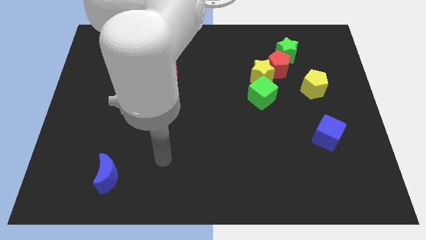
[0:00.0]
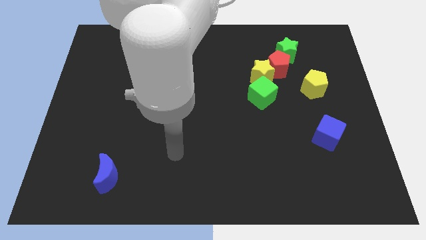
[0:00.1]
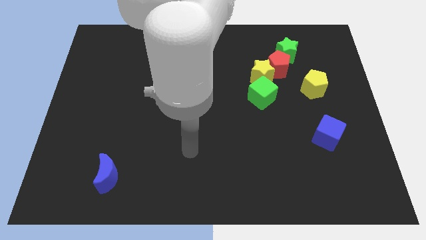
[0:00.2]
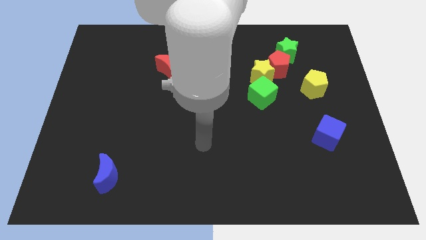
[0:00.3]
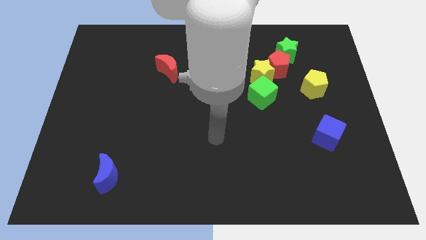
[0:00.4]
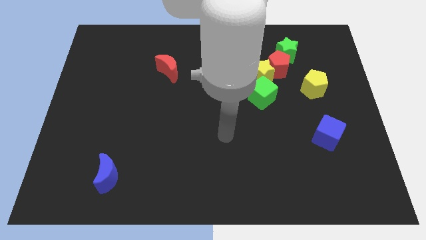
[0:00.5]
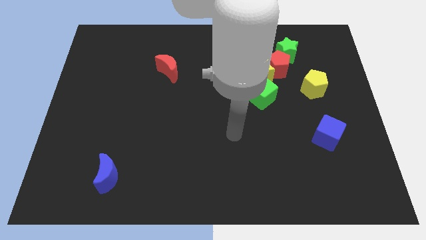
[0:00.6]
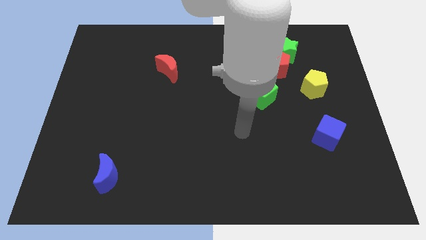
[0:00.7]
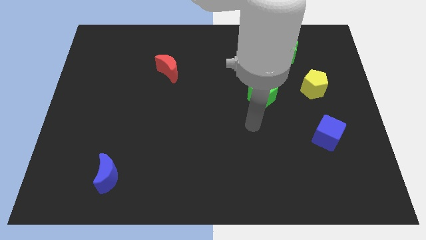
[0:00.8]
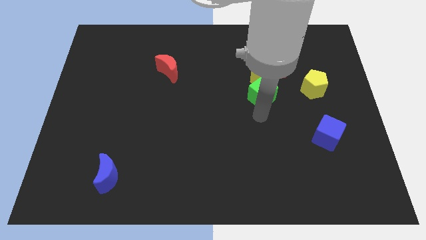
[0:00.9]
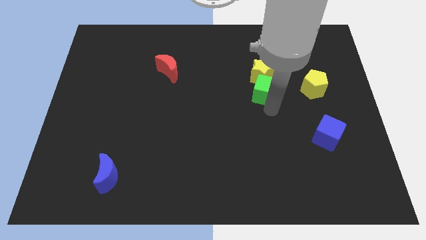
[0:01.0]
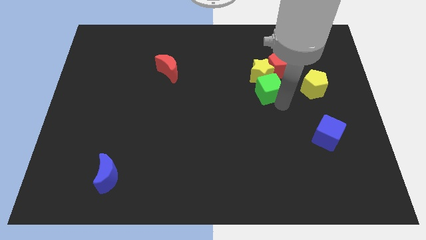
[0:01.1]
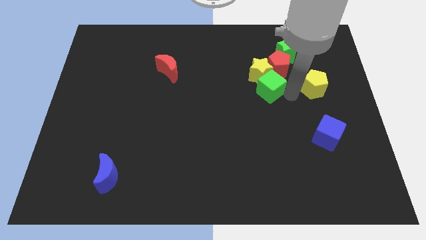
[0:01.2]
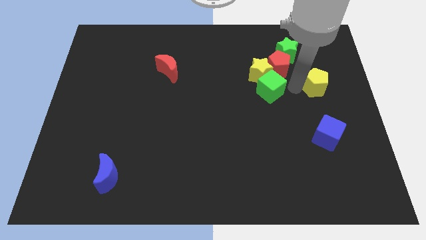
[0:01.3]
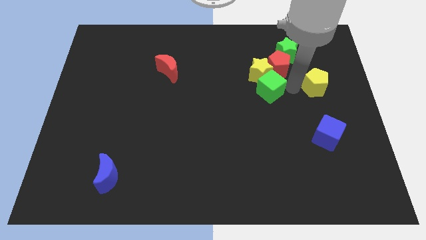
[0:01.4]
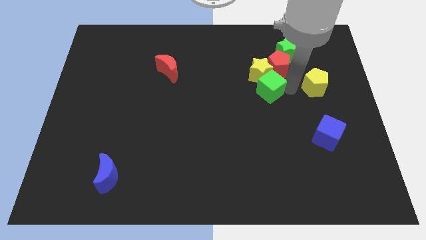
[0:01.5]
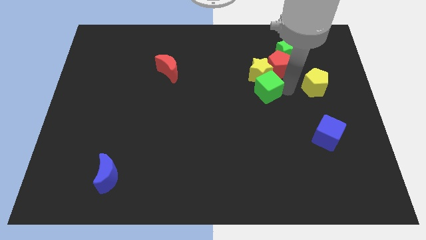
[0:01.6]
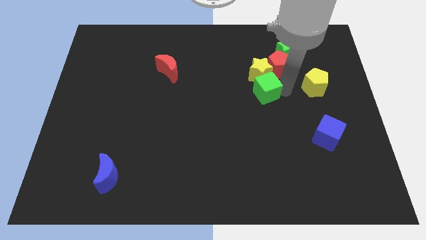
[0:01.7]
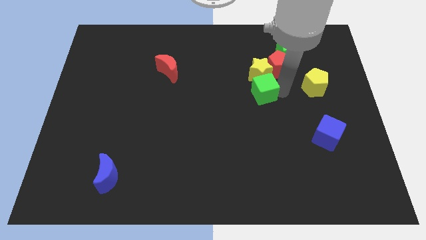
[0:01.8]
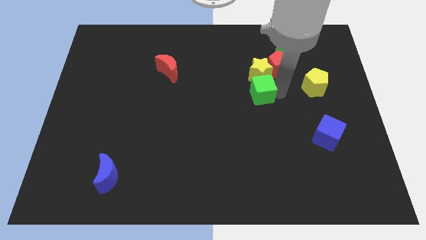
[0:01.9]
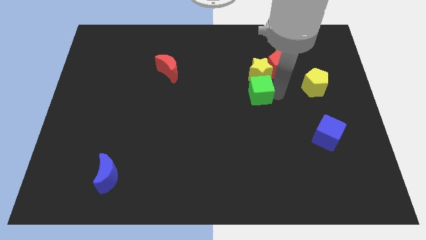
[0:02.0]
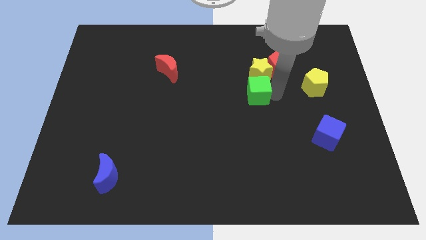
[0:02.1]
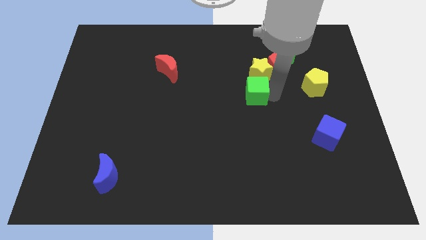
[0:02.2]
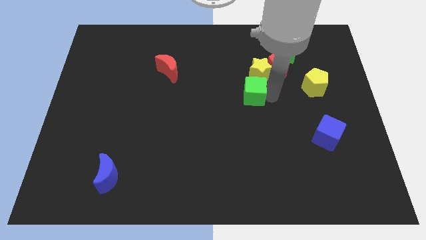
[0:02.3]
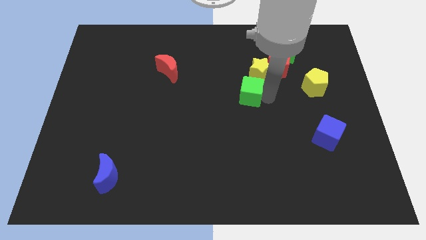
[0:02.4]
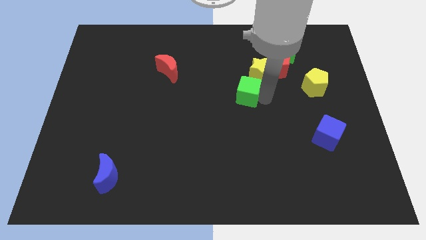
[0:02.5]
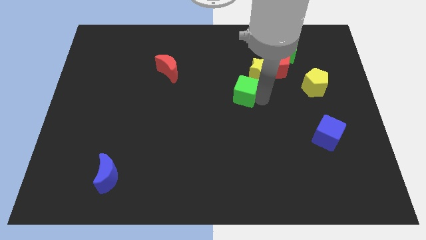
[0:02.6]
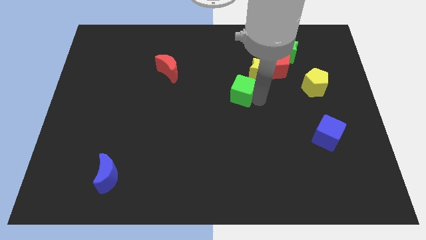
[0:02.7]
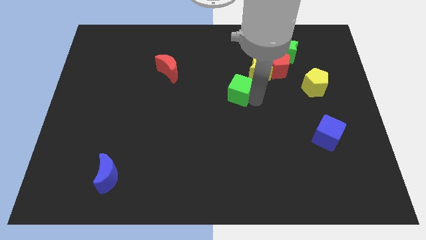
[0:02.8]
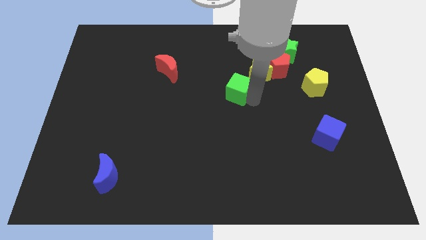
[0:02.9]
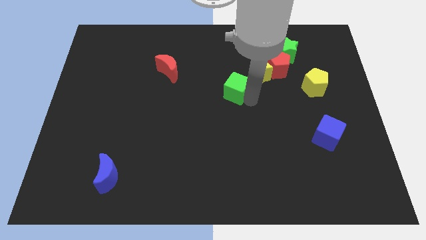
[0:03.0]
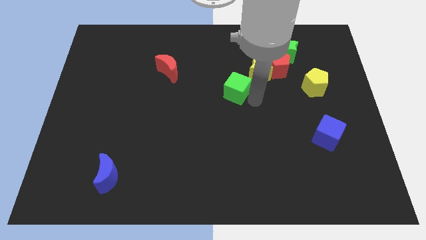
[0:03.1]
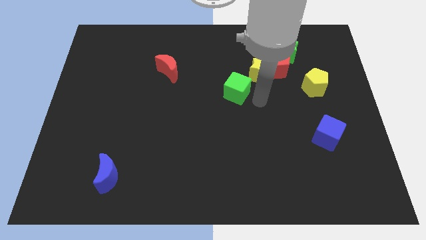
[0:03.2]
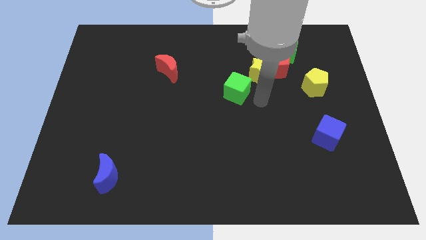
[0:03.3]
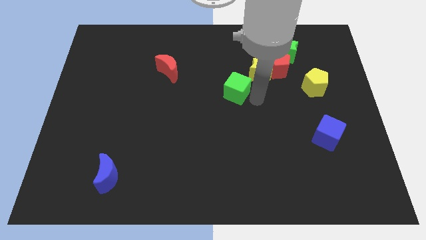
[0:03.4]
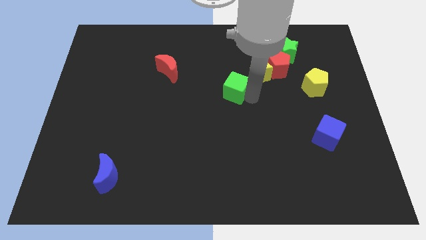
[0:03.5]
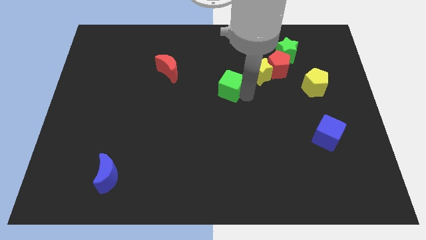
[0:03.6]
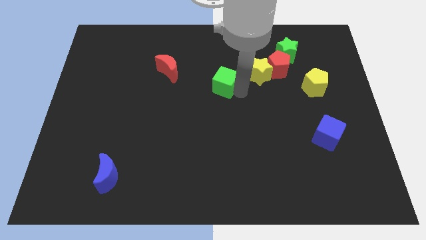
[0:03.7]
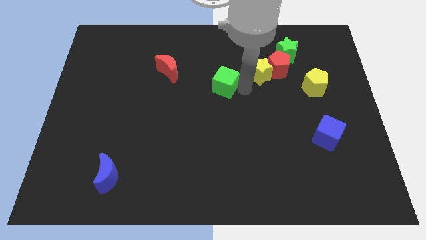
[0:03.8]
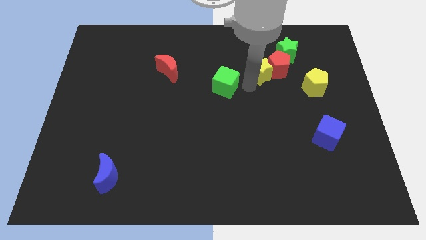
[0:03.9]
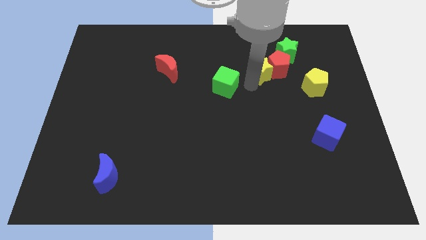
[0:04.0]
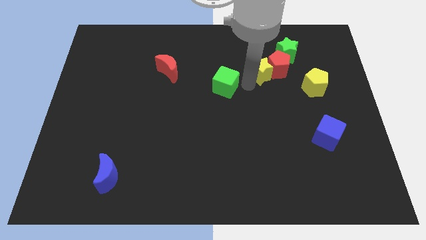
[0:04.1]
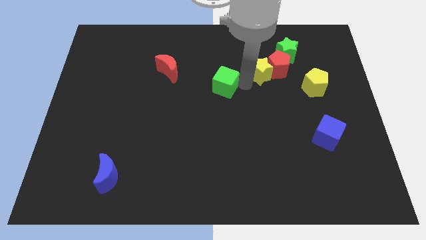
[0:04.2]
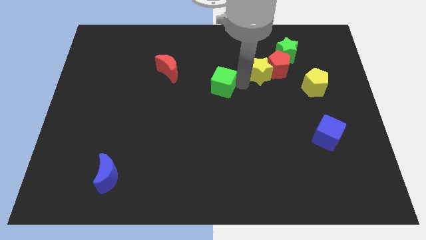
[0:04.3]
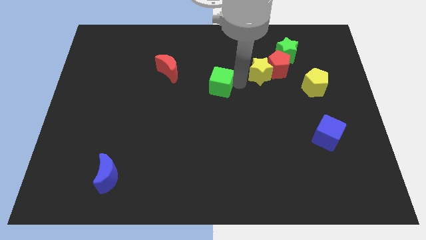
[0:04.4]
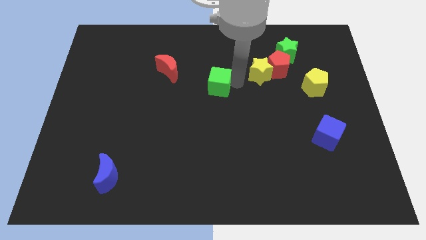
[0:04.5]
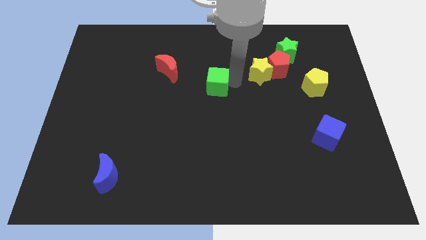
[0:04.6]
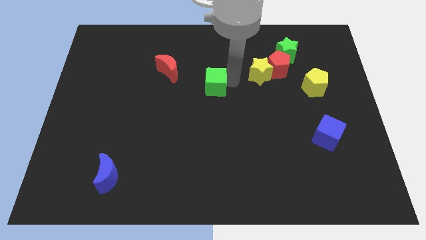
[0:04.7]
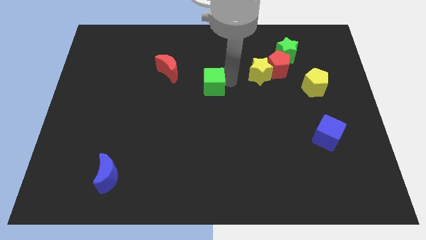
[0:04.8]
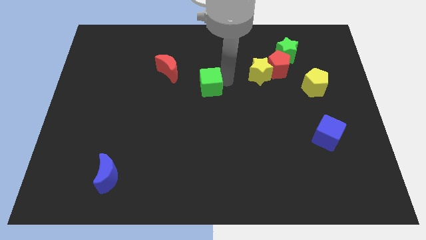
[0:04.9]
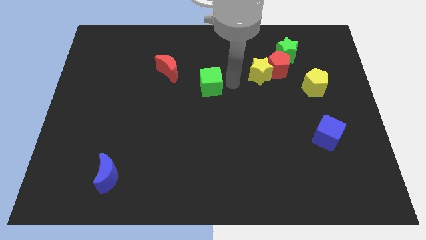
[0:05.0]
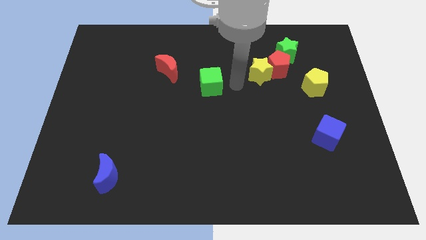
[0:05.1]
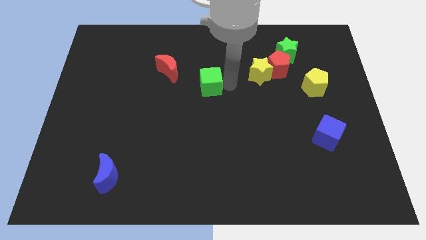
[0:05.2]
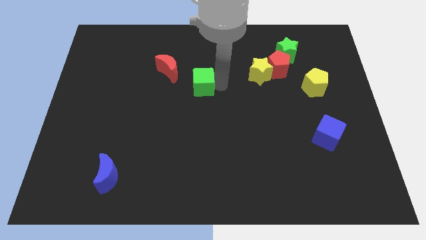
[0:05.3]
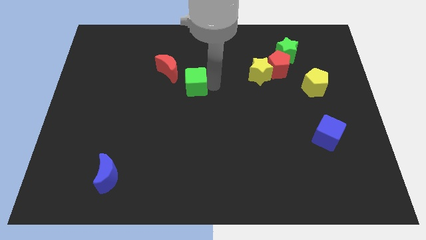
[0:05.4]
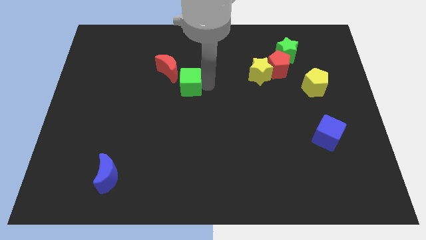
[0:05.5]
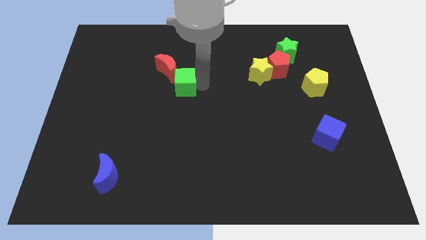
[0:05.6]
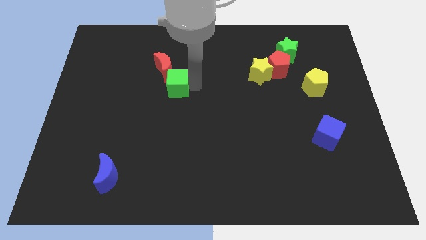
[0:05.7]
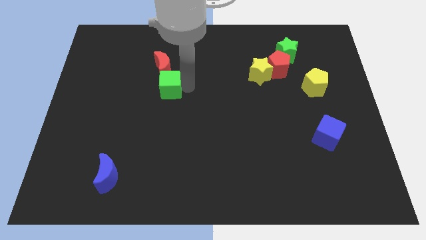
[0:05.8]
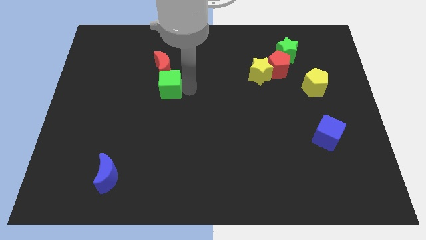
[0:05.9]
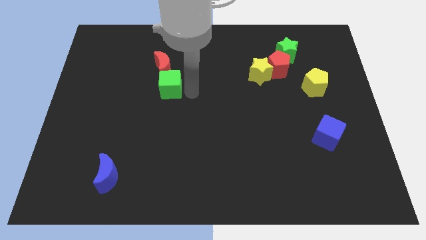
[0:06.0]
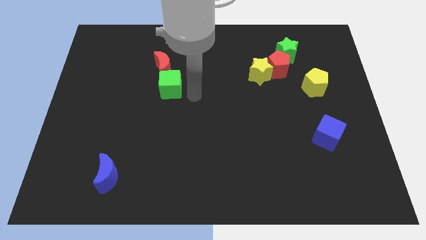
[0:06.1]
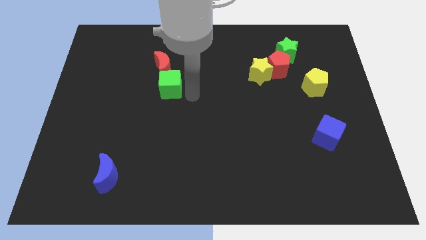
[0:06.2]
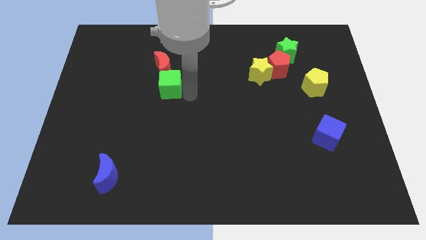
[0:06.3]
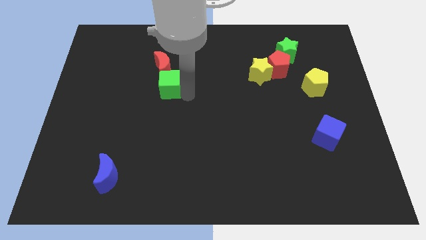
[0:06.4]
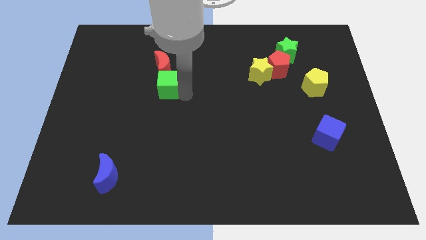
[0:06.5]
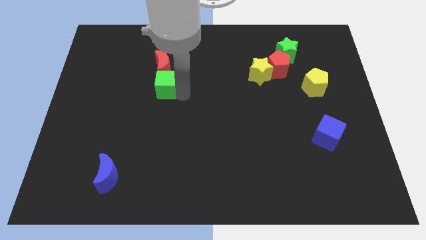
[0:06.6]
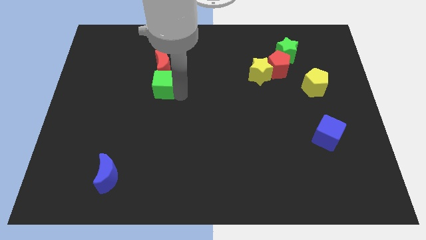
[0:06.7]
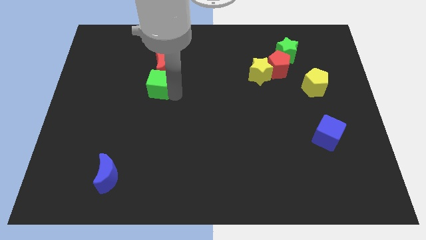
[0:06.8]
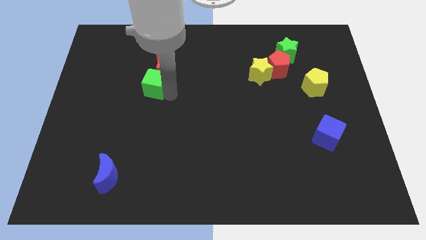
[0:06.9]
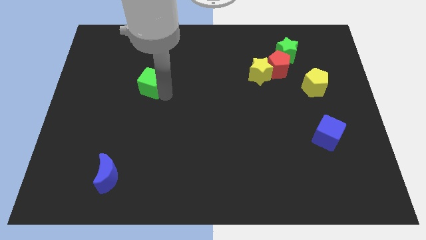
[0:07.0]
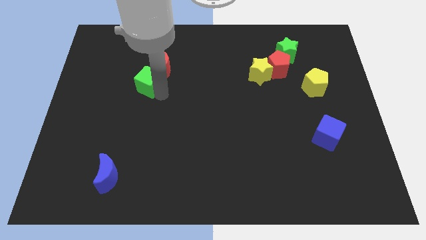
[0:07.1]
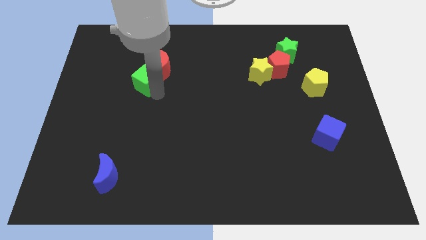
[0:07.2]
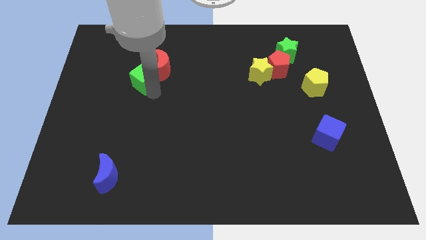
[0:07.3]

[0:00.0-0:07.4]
move the green cube to the left of the red moon

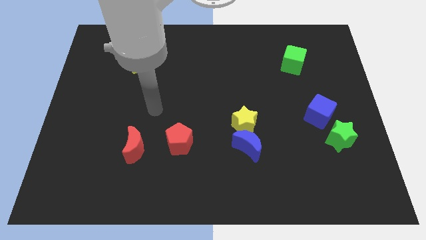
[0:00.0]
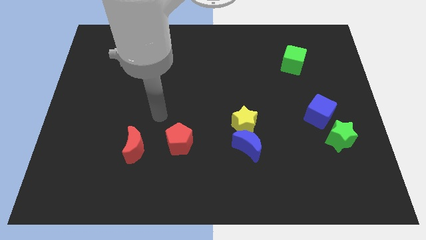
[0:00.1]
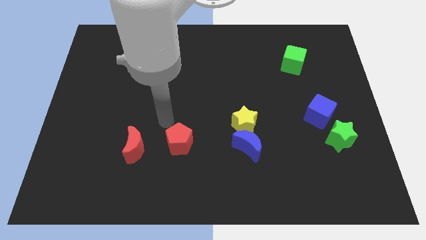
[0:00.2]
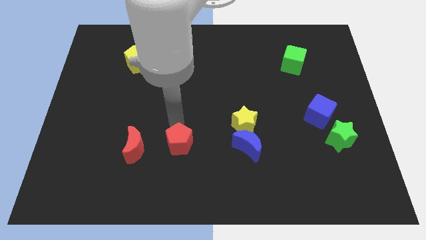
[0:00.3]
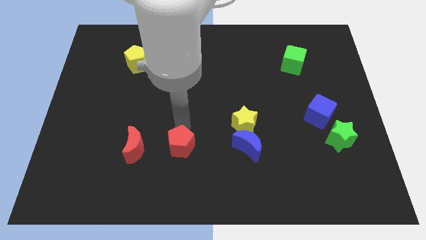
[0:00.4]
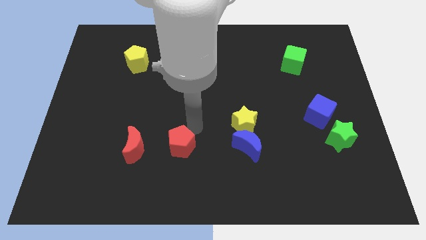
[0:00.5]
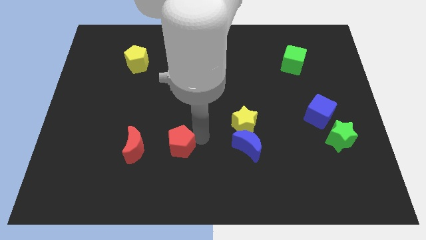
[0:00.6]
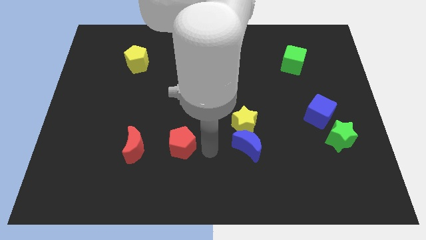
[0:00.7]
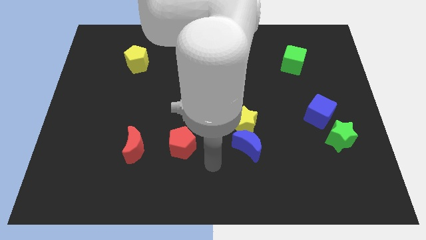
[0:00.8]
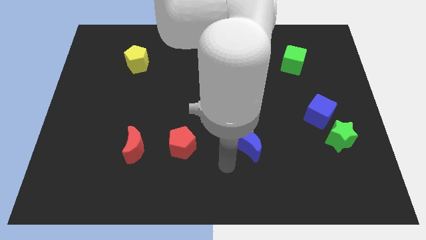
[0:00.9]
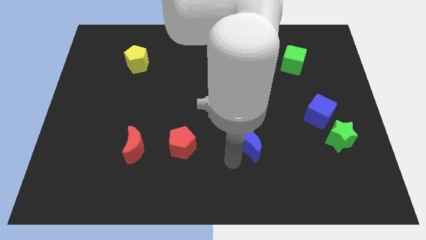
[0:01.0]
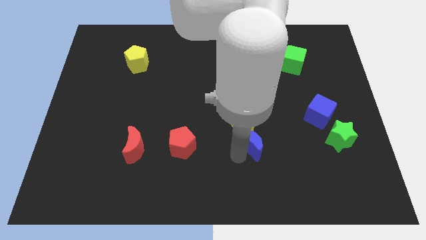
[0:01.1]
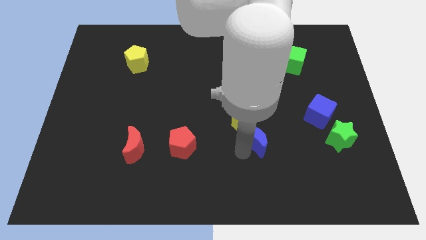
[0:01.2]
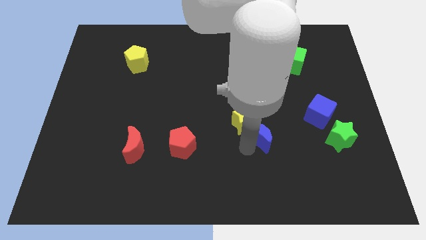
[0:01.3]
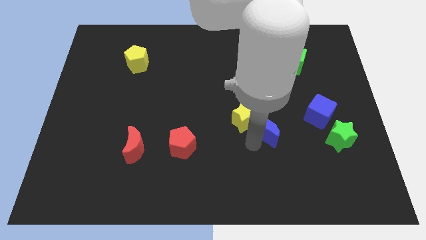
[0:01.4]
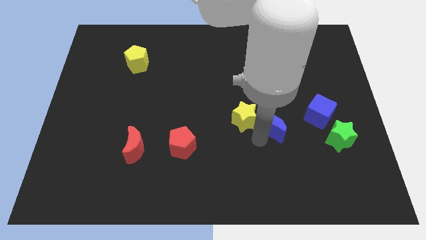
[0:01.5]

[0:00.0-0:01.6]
slide the blue moon to the left of the blue cube
